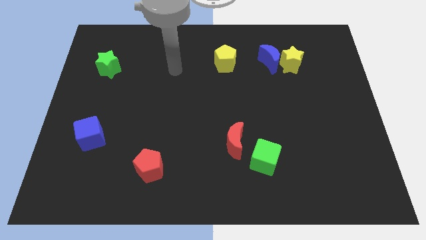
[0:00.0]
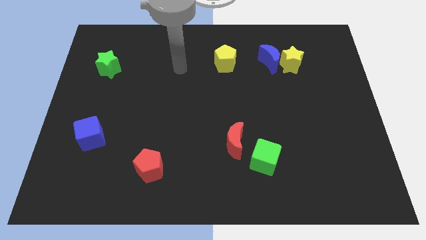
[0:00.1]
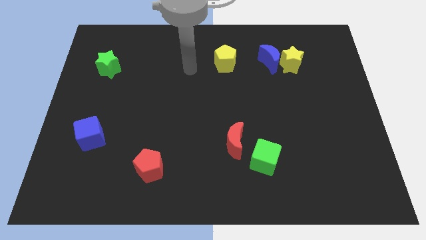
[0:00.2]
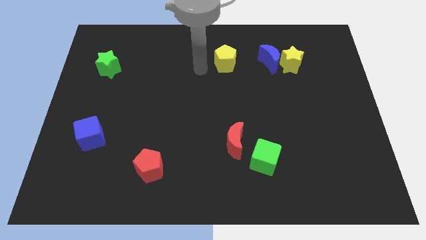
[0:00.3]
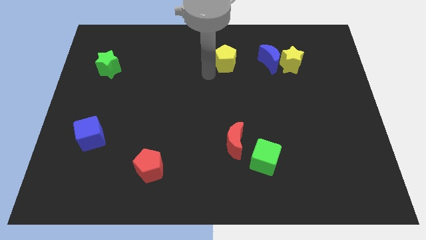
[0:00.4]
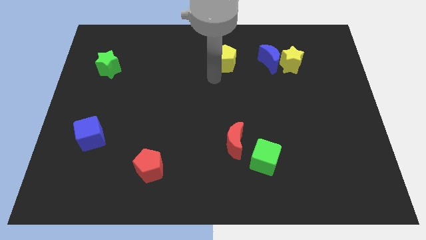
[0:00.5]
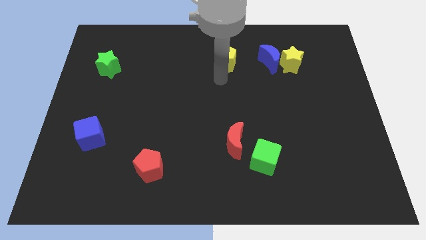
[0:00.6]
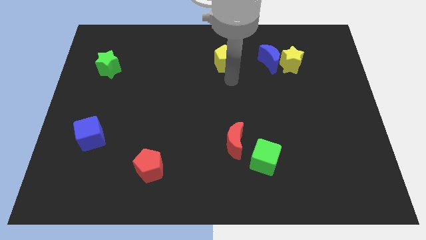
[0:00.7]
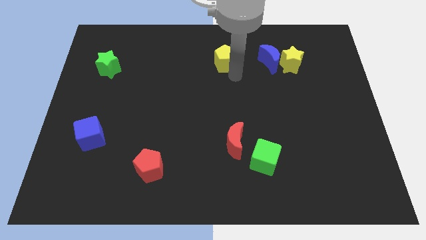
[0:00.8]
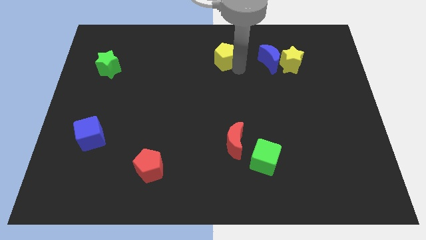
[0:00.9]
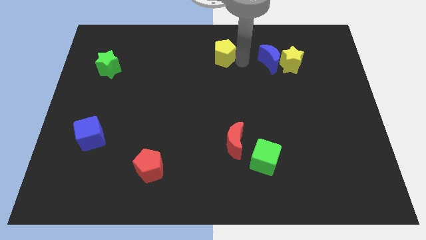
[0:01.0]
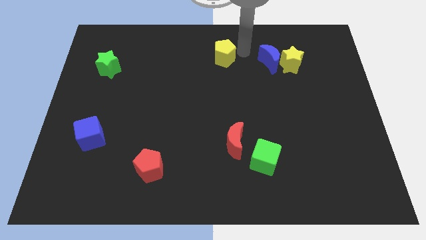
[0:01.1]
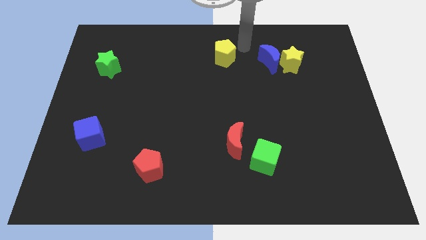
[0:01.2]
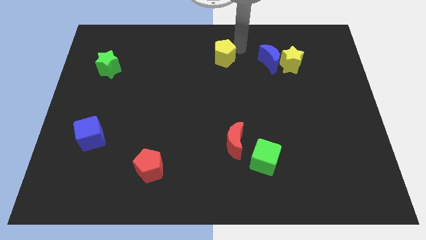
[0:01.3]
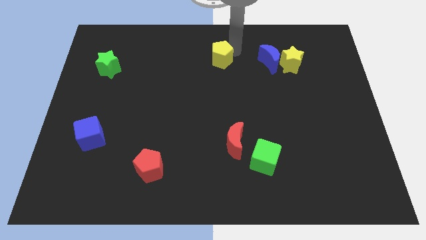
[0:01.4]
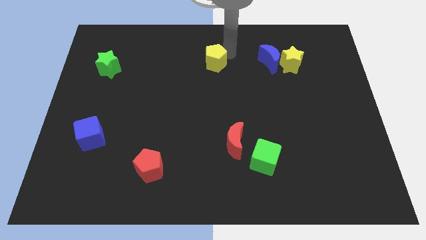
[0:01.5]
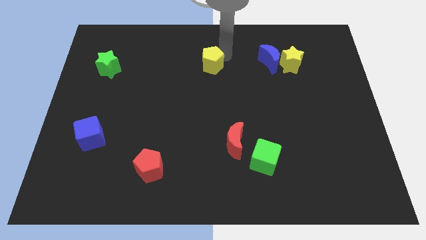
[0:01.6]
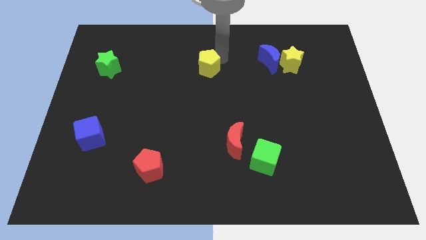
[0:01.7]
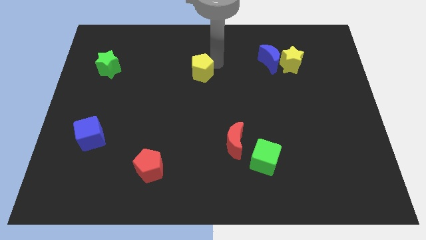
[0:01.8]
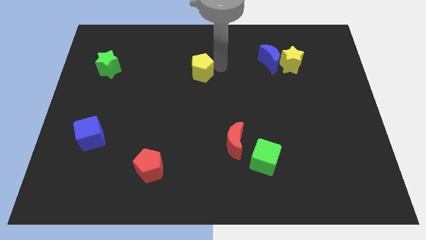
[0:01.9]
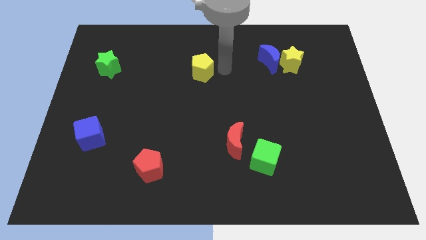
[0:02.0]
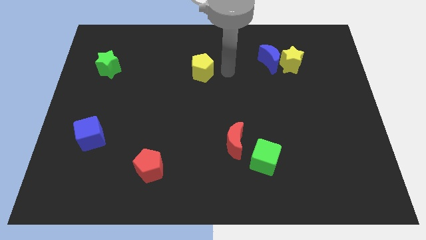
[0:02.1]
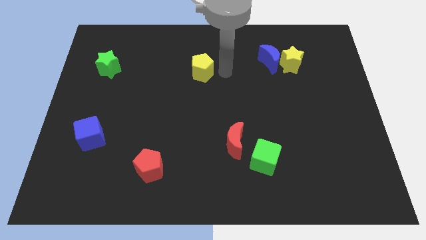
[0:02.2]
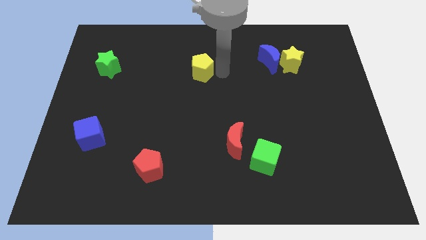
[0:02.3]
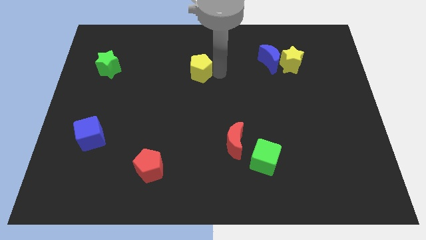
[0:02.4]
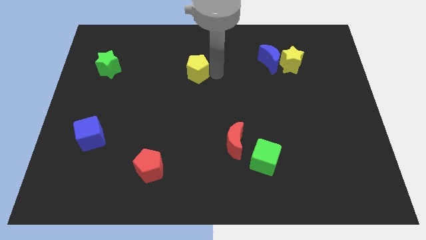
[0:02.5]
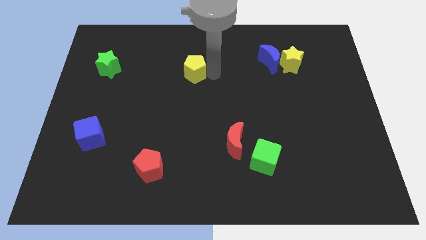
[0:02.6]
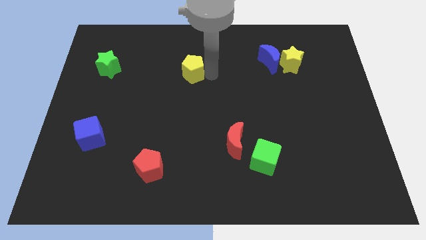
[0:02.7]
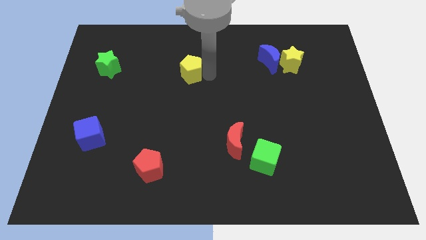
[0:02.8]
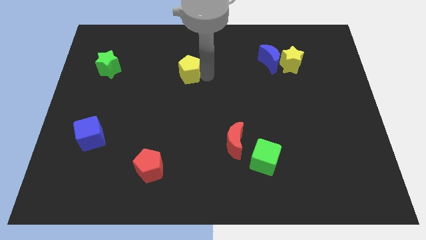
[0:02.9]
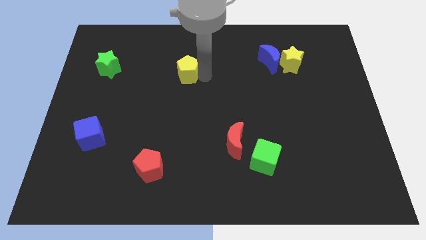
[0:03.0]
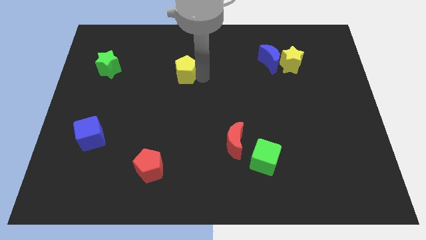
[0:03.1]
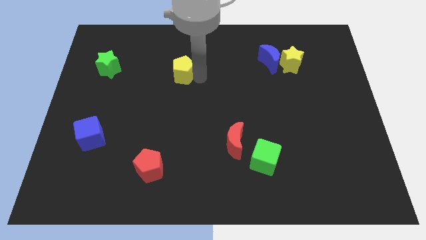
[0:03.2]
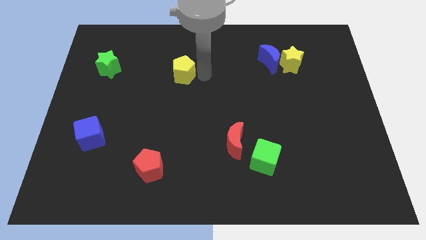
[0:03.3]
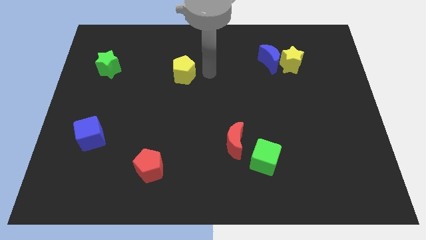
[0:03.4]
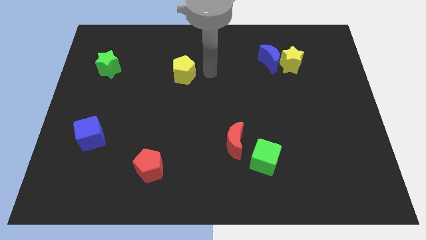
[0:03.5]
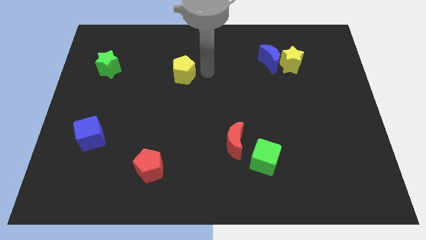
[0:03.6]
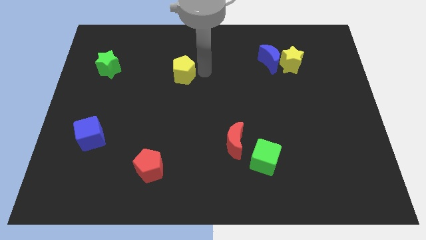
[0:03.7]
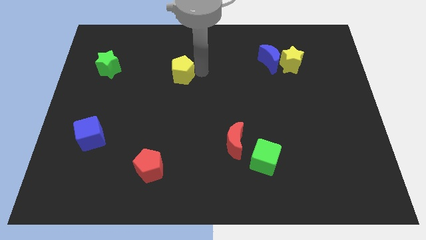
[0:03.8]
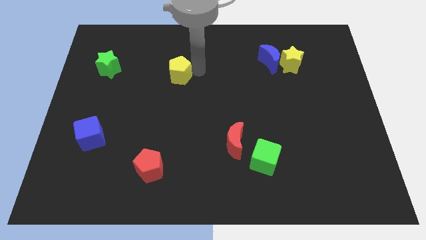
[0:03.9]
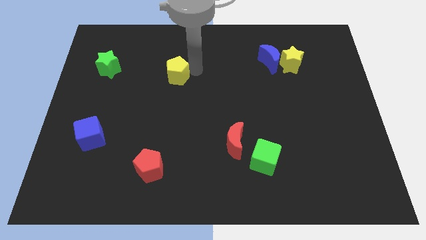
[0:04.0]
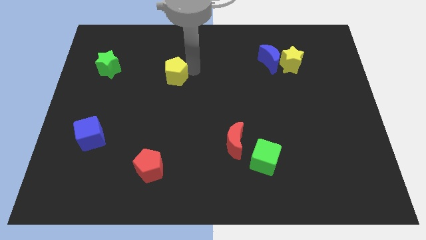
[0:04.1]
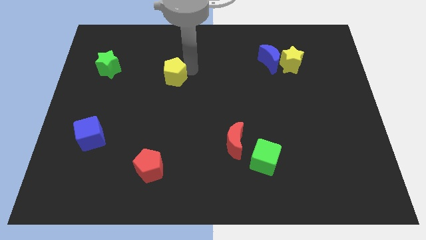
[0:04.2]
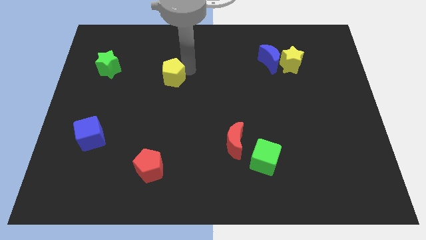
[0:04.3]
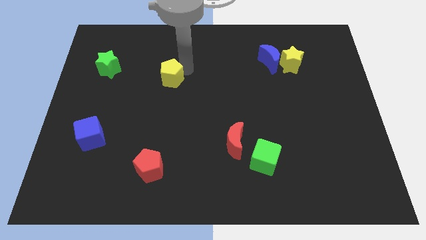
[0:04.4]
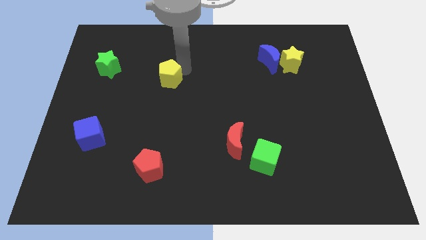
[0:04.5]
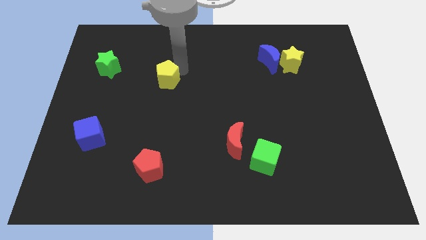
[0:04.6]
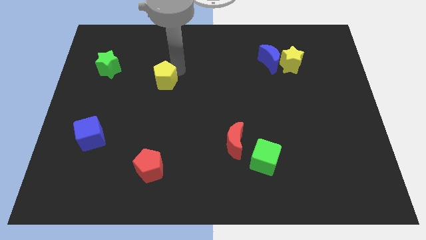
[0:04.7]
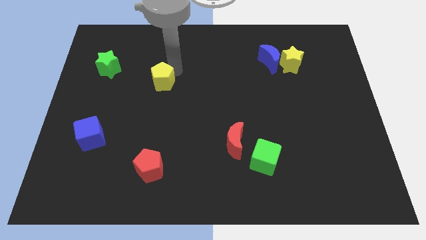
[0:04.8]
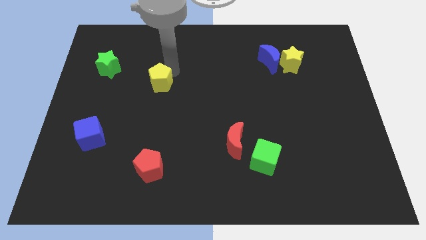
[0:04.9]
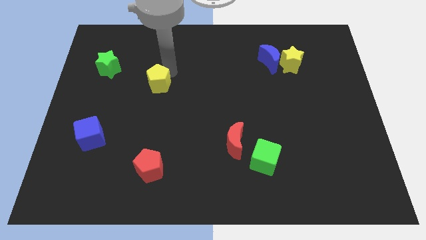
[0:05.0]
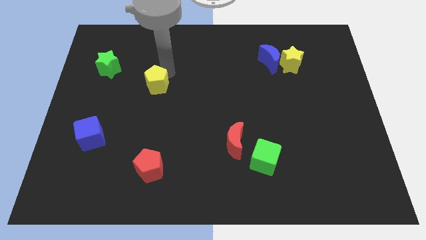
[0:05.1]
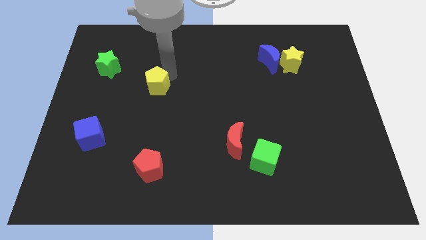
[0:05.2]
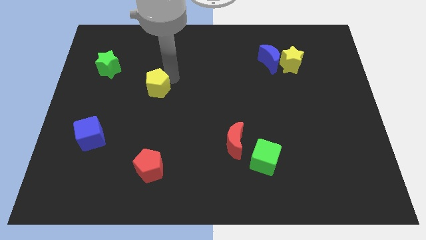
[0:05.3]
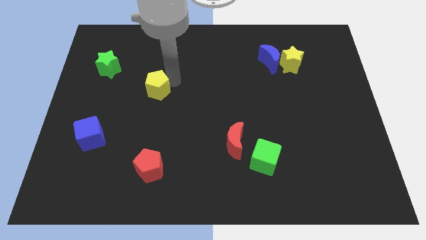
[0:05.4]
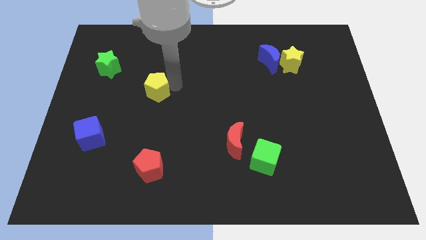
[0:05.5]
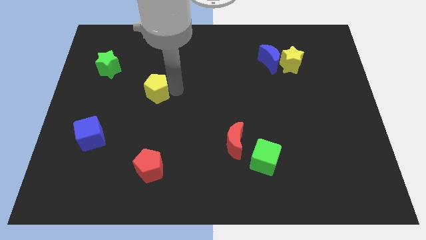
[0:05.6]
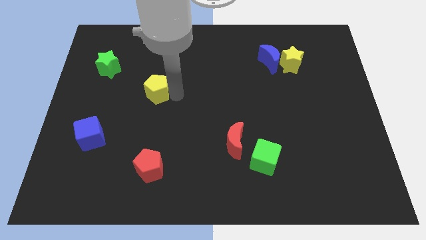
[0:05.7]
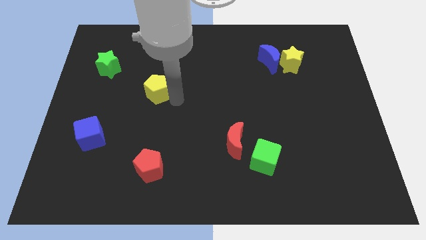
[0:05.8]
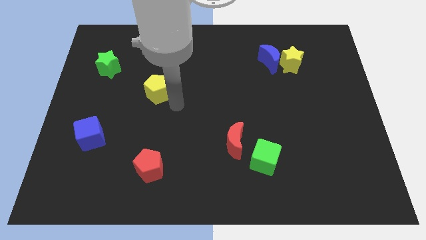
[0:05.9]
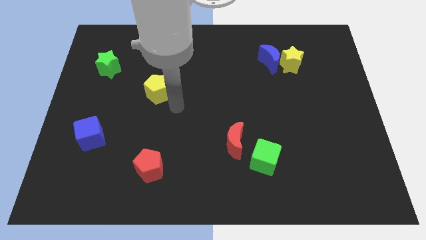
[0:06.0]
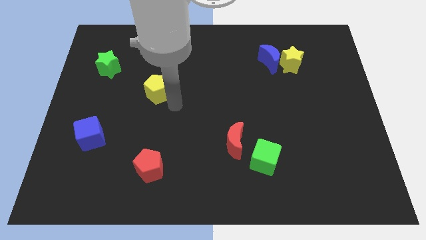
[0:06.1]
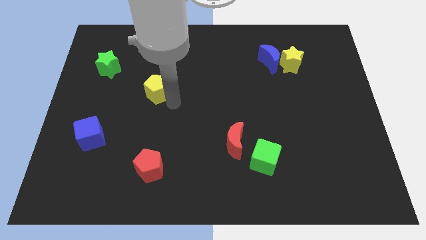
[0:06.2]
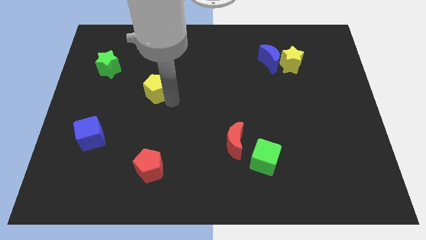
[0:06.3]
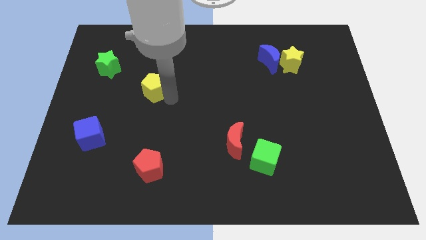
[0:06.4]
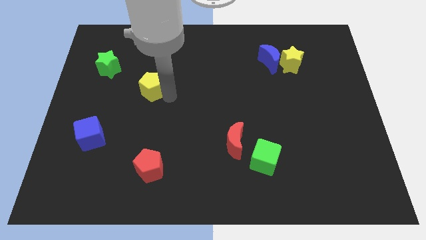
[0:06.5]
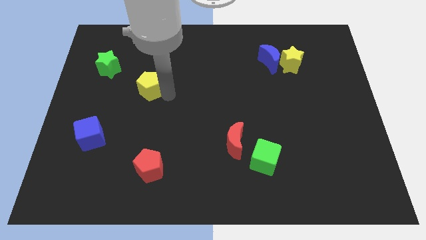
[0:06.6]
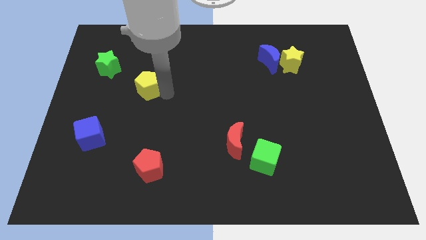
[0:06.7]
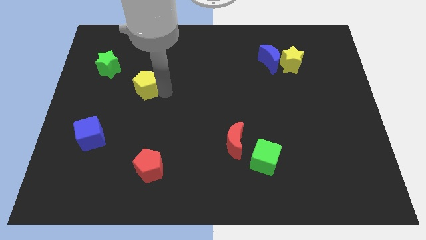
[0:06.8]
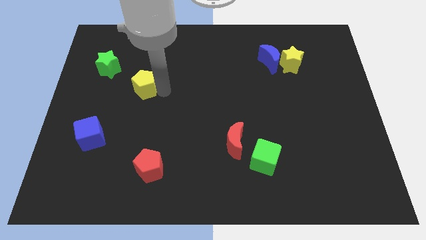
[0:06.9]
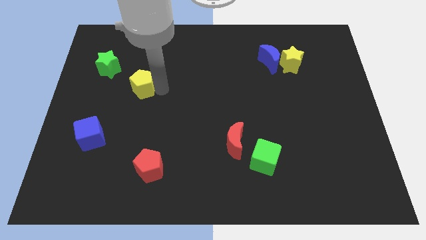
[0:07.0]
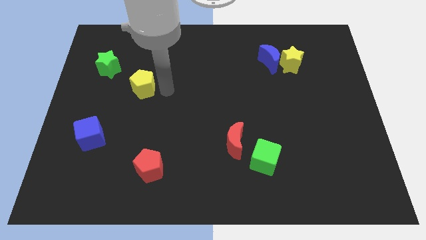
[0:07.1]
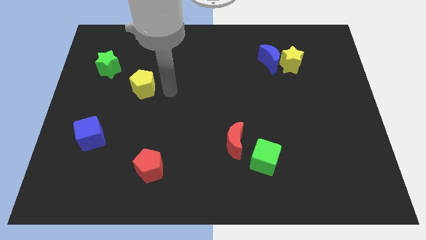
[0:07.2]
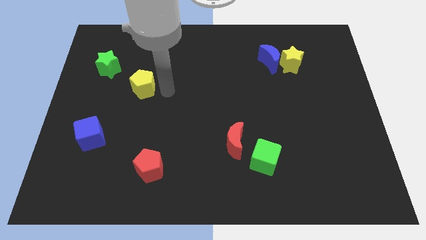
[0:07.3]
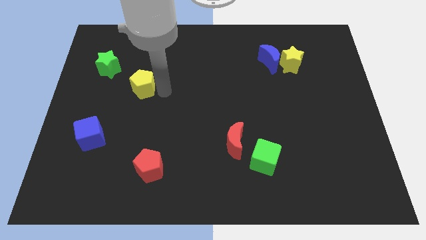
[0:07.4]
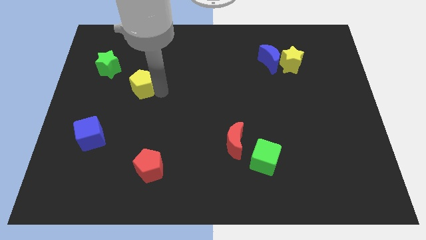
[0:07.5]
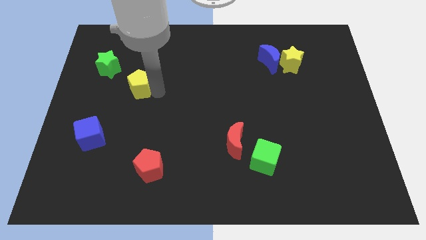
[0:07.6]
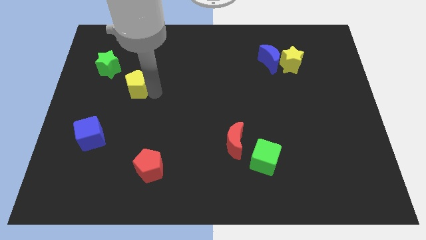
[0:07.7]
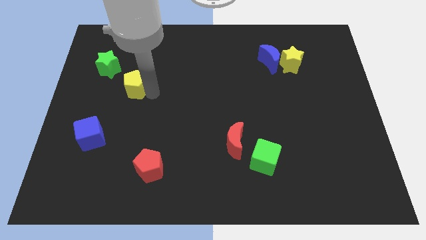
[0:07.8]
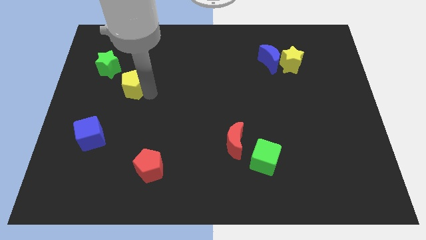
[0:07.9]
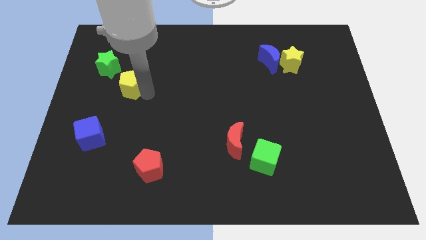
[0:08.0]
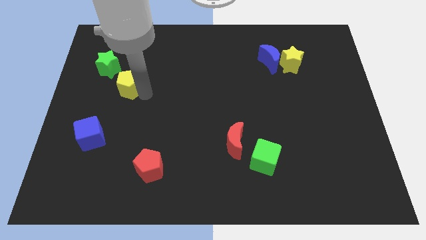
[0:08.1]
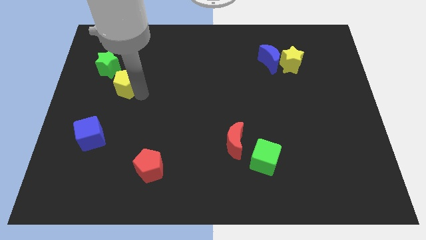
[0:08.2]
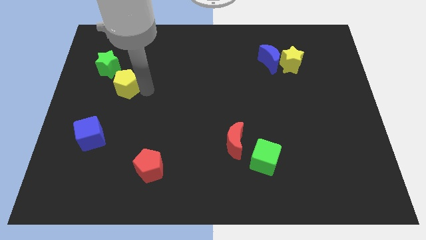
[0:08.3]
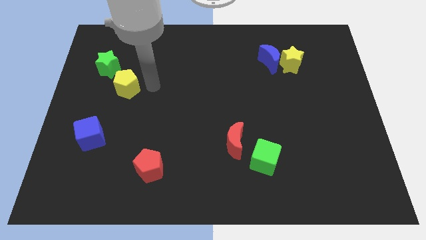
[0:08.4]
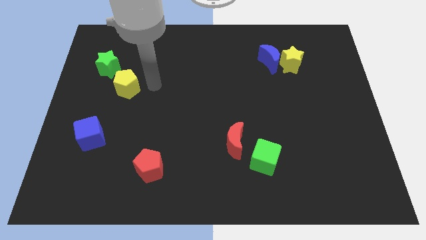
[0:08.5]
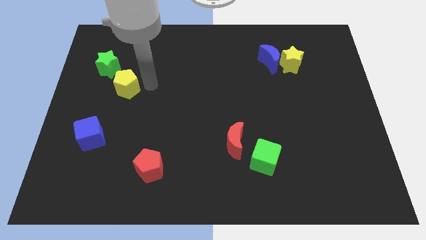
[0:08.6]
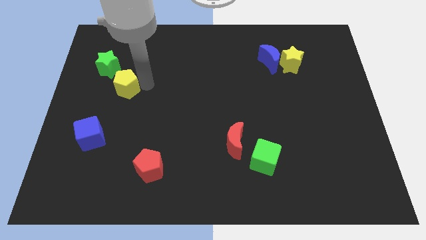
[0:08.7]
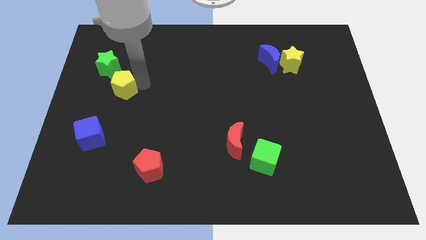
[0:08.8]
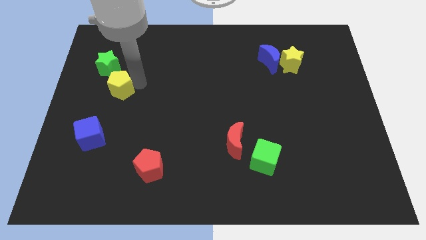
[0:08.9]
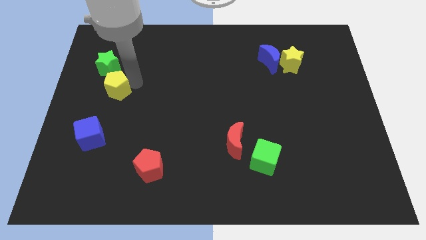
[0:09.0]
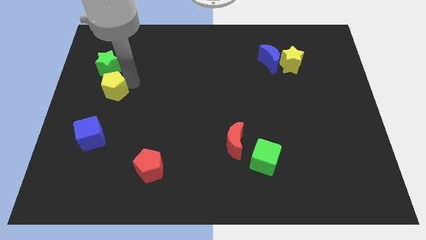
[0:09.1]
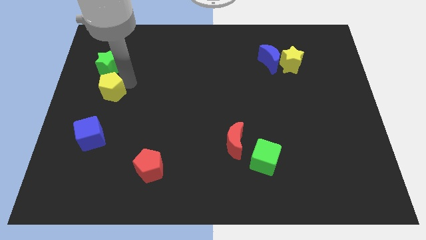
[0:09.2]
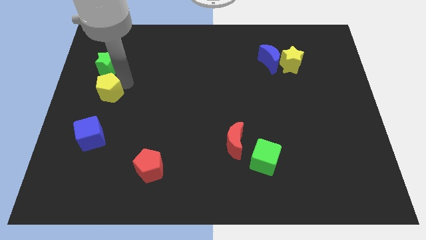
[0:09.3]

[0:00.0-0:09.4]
put the yellow pentagon to the left side of the board
